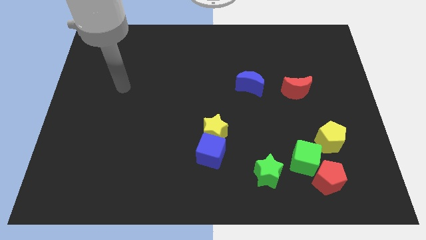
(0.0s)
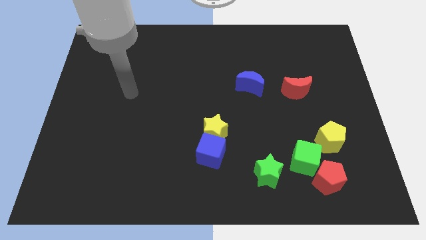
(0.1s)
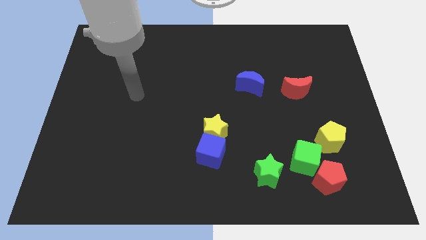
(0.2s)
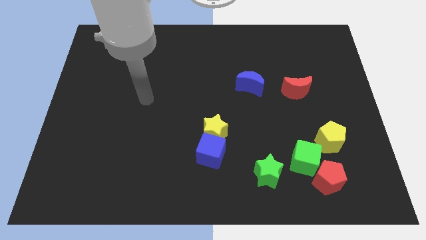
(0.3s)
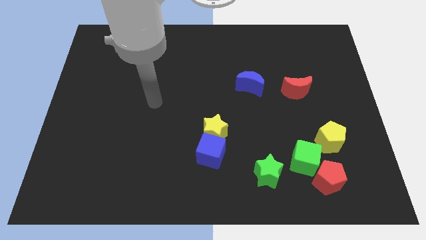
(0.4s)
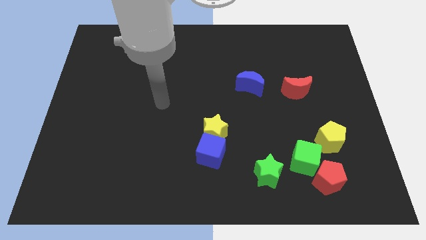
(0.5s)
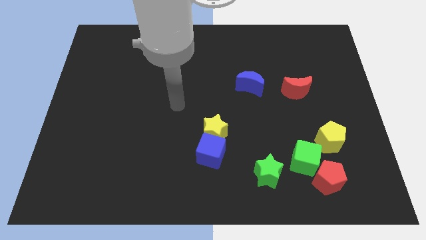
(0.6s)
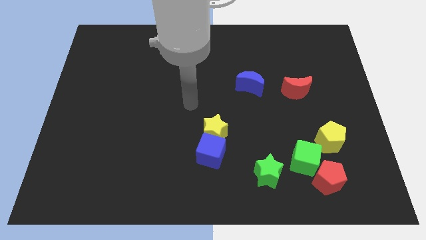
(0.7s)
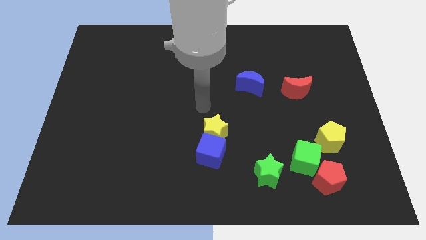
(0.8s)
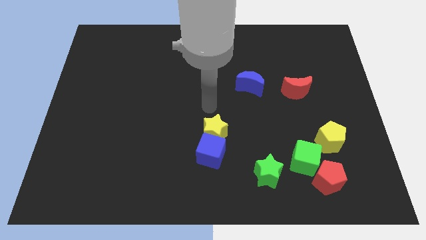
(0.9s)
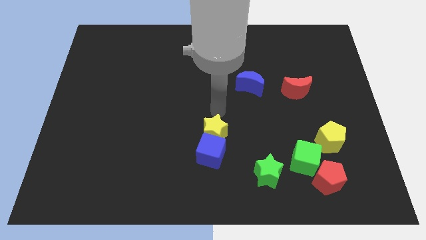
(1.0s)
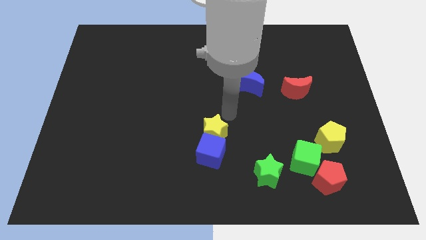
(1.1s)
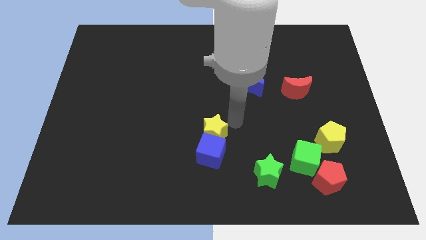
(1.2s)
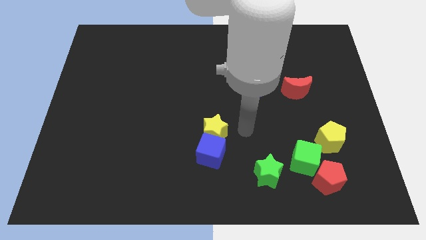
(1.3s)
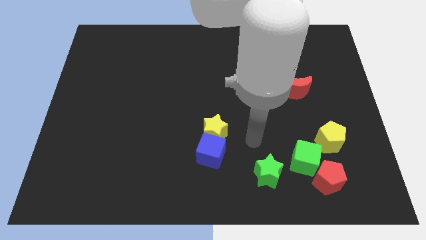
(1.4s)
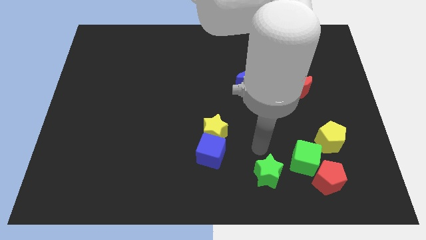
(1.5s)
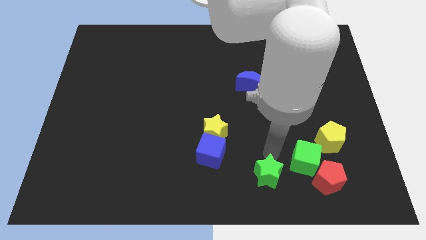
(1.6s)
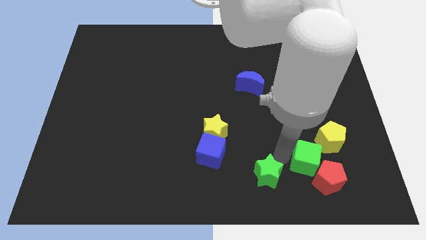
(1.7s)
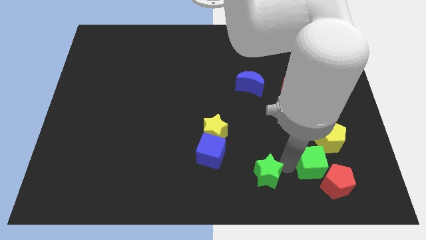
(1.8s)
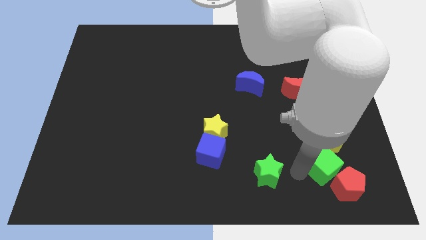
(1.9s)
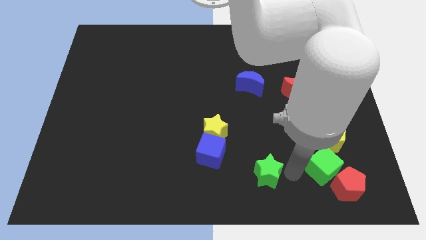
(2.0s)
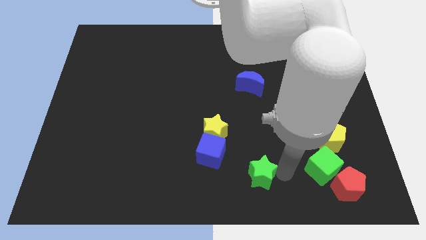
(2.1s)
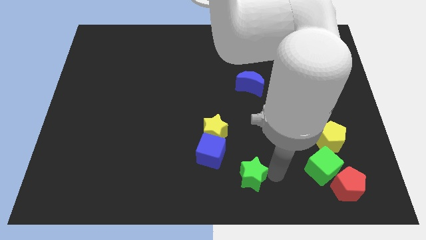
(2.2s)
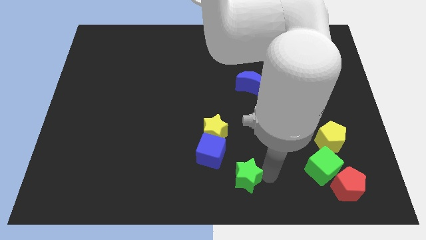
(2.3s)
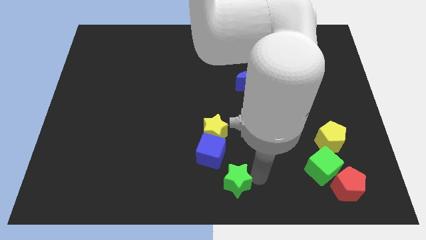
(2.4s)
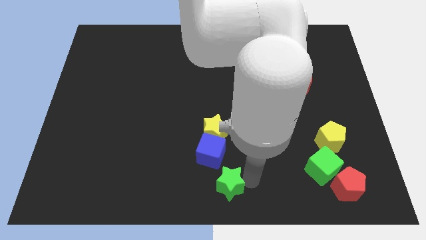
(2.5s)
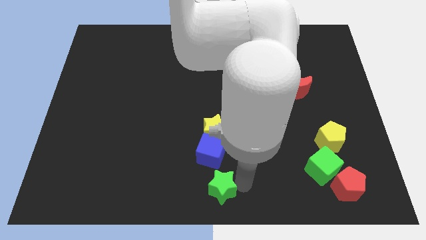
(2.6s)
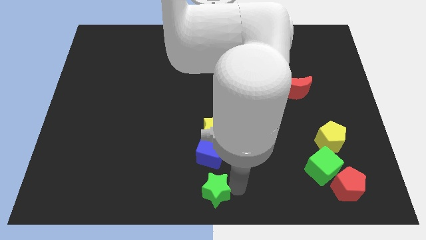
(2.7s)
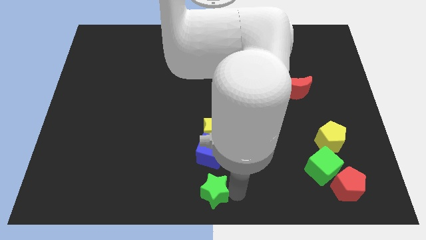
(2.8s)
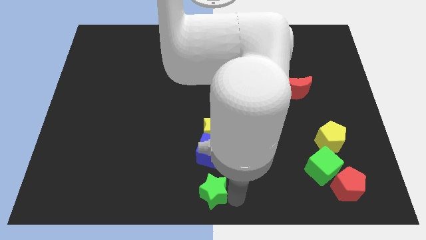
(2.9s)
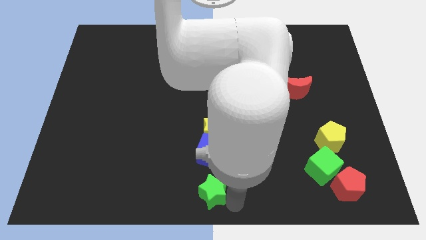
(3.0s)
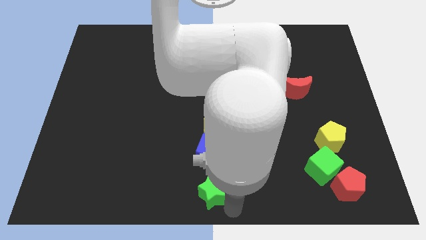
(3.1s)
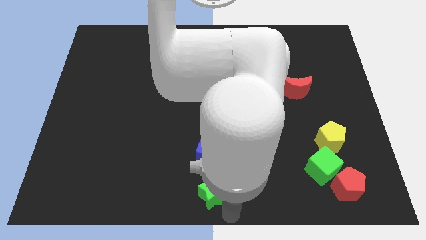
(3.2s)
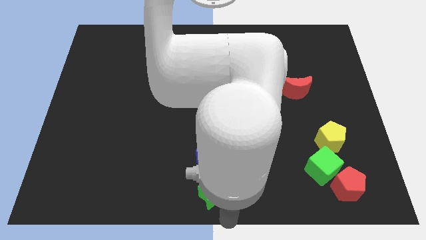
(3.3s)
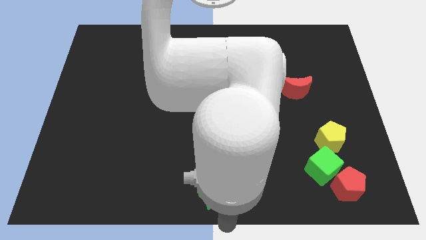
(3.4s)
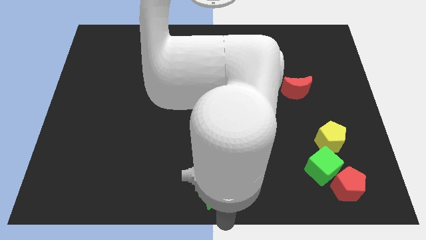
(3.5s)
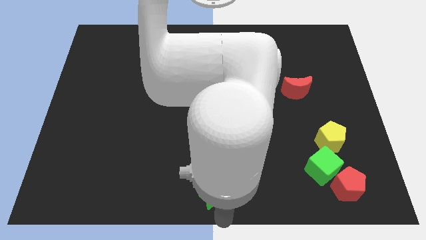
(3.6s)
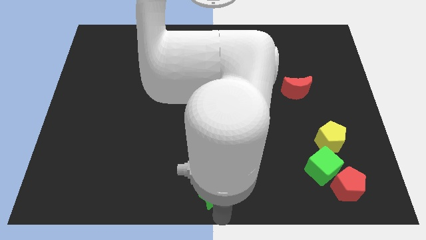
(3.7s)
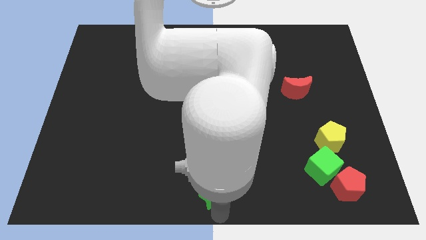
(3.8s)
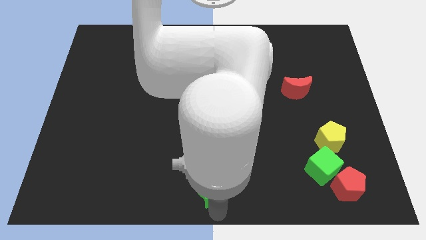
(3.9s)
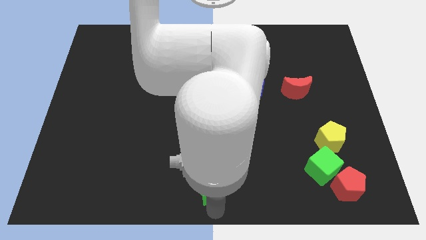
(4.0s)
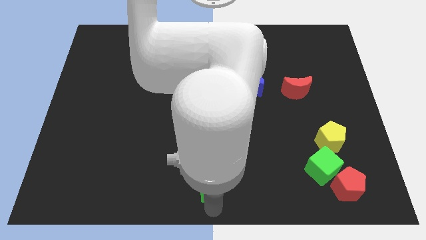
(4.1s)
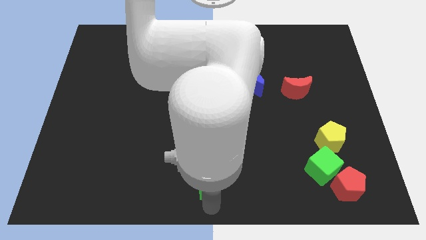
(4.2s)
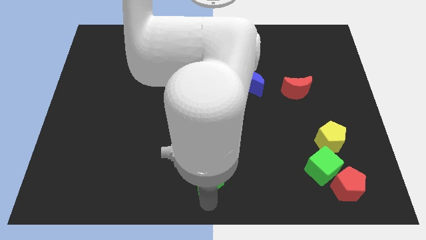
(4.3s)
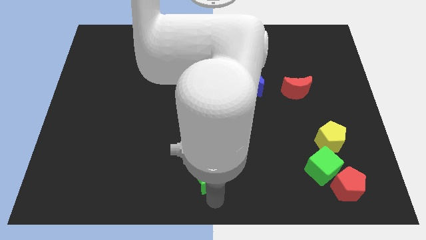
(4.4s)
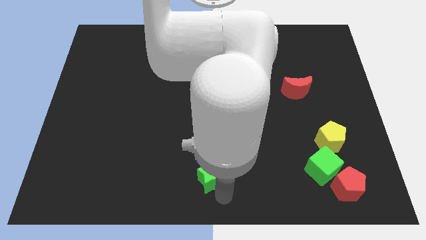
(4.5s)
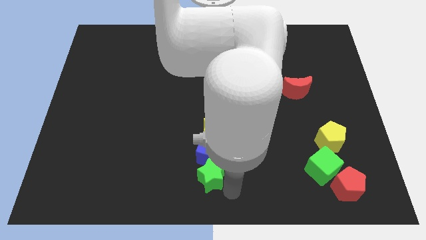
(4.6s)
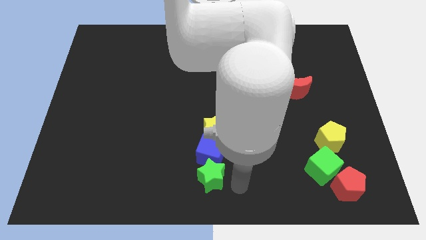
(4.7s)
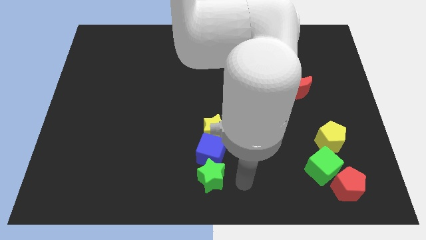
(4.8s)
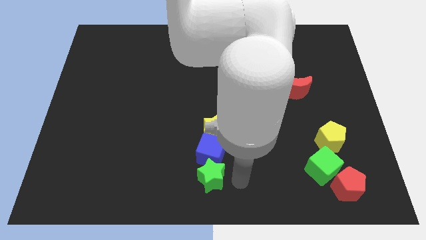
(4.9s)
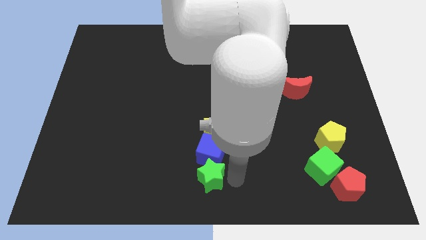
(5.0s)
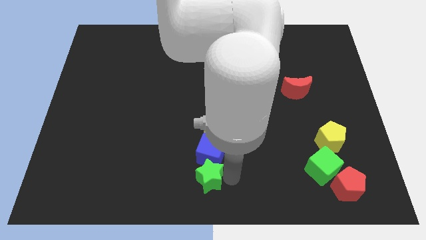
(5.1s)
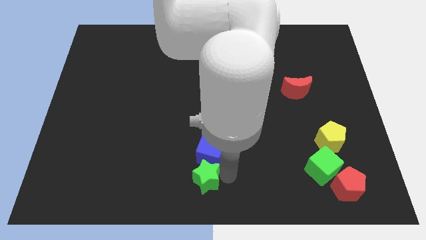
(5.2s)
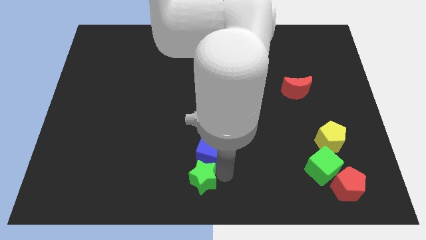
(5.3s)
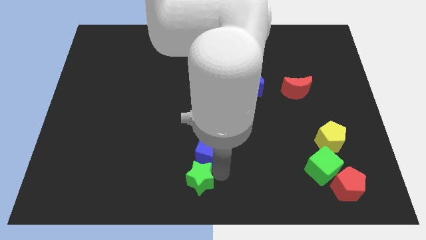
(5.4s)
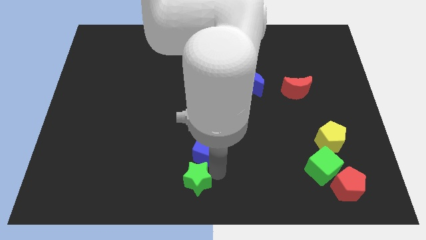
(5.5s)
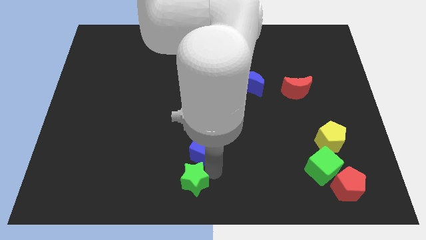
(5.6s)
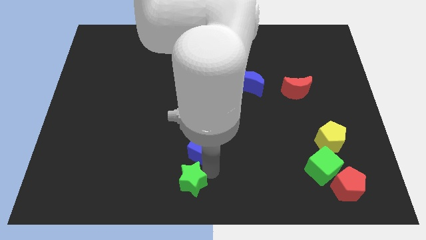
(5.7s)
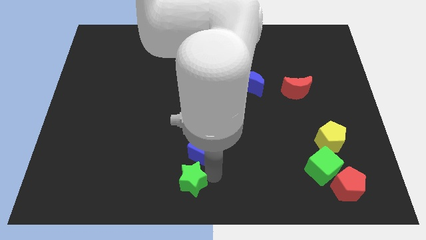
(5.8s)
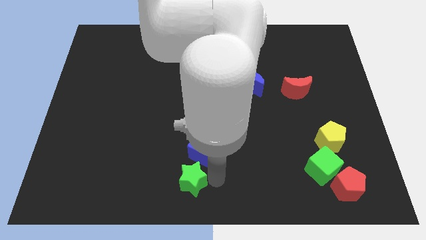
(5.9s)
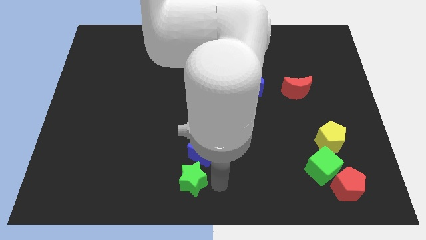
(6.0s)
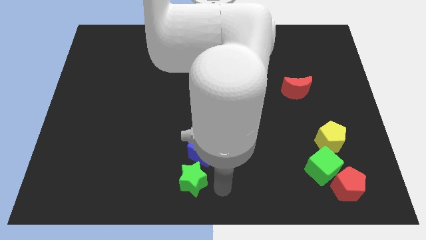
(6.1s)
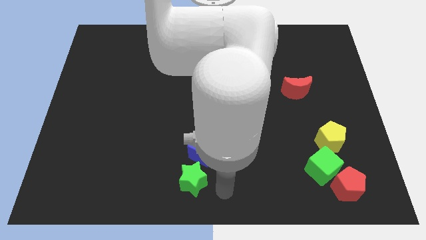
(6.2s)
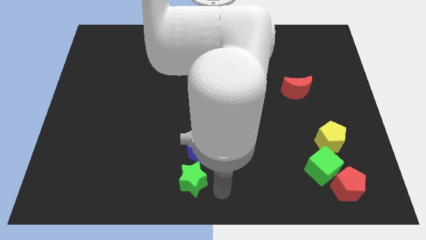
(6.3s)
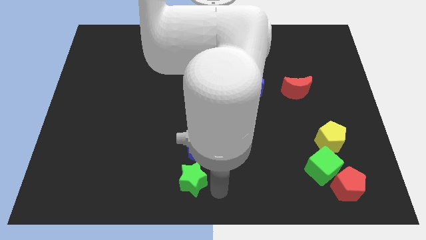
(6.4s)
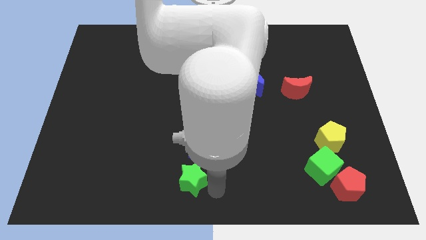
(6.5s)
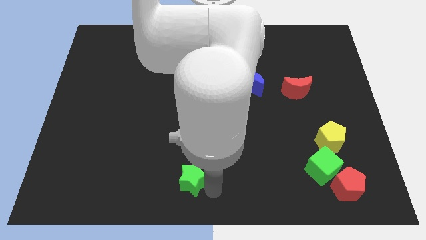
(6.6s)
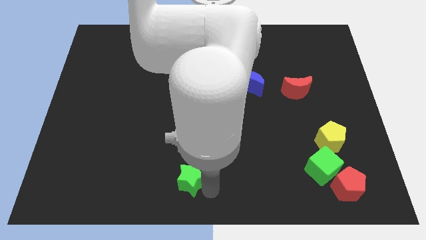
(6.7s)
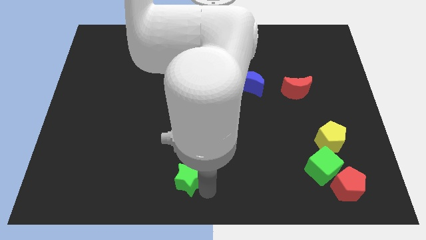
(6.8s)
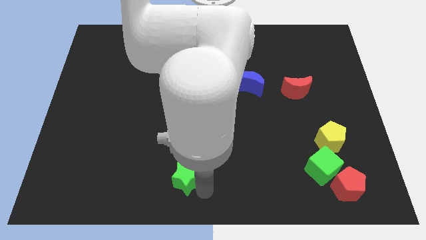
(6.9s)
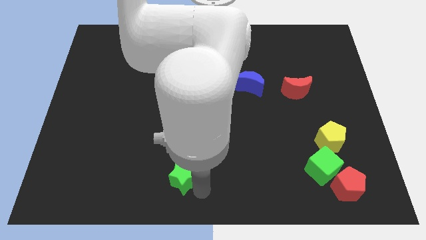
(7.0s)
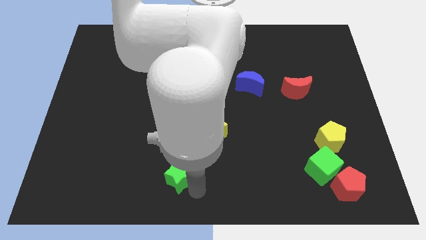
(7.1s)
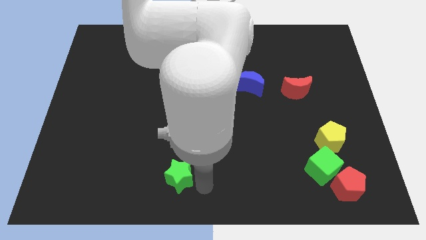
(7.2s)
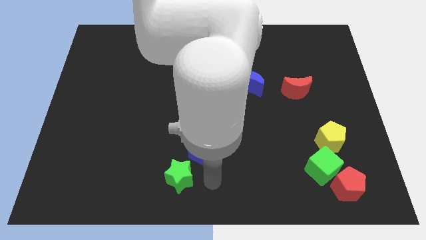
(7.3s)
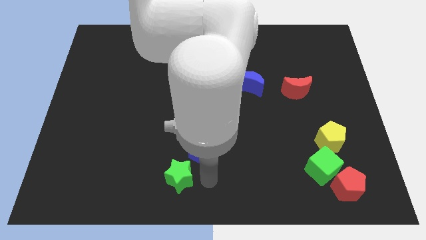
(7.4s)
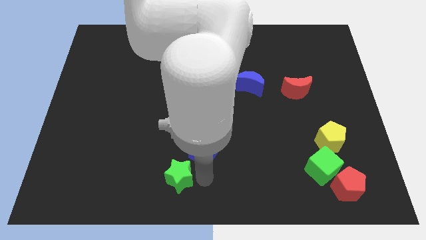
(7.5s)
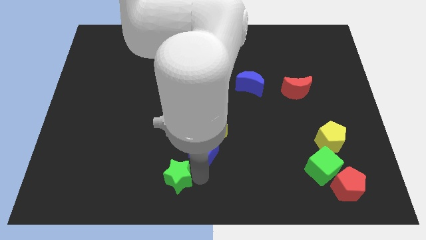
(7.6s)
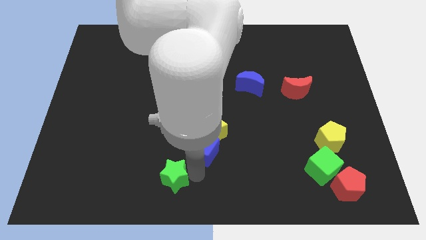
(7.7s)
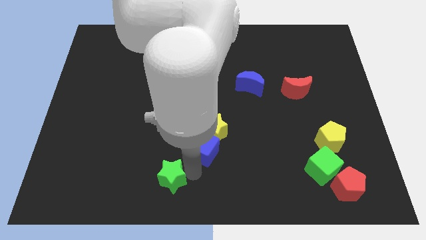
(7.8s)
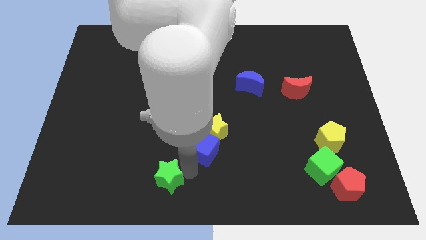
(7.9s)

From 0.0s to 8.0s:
move the green star to the left

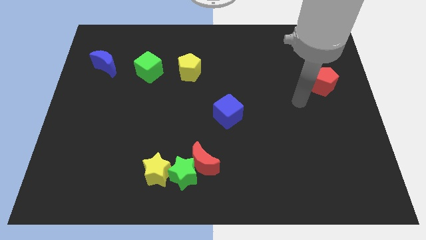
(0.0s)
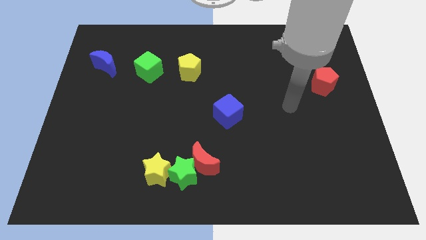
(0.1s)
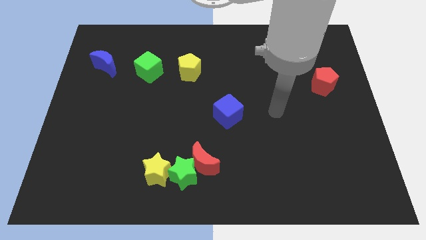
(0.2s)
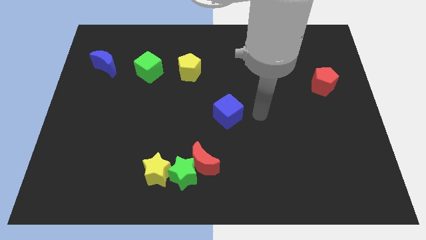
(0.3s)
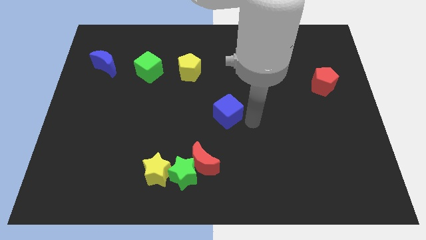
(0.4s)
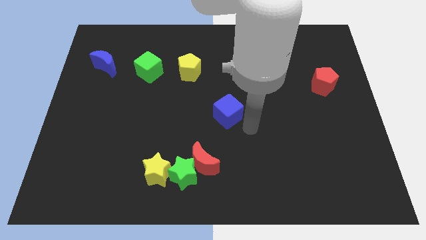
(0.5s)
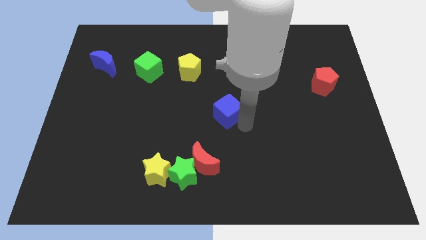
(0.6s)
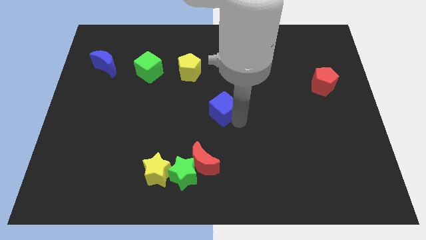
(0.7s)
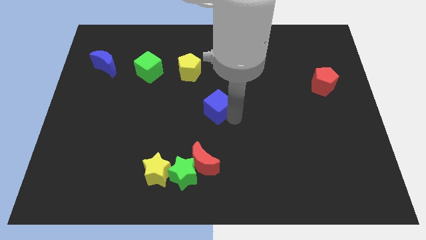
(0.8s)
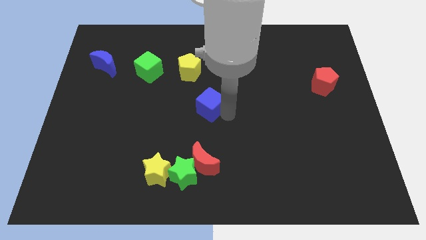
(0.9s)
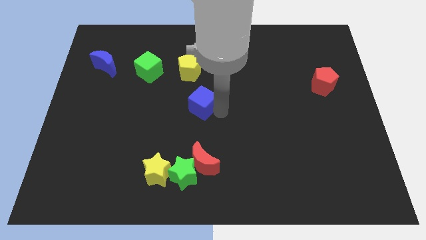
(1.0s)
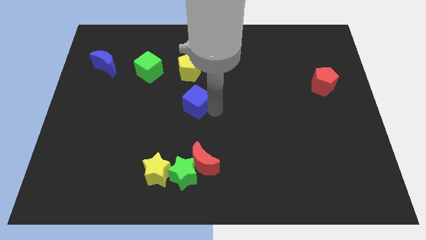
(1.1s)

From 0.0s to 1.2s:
move the blue cube up and left a little
